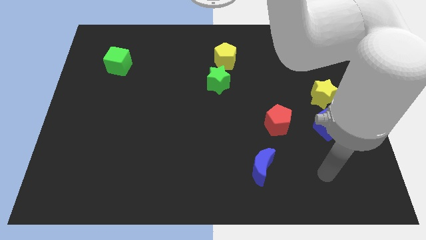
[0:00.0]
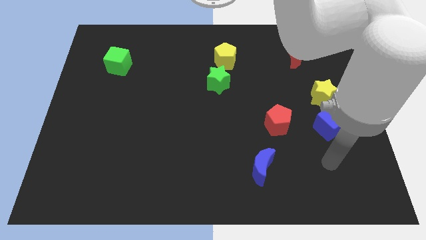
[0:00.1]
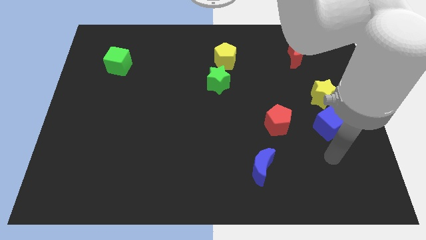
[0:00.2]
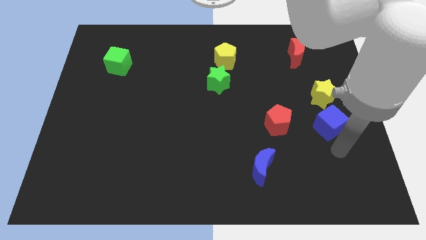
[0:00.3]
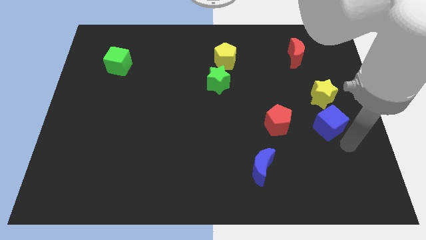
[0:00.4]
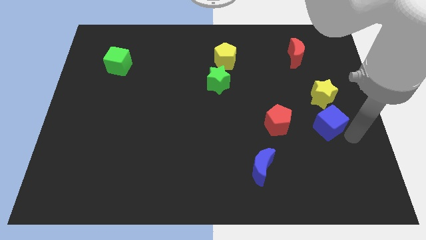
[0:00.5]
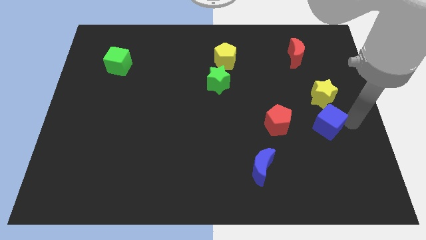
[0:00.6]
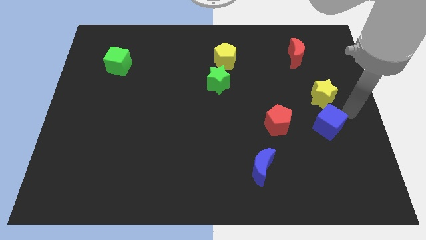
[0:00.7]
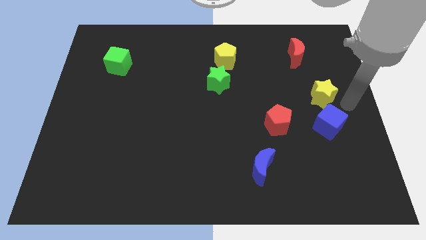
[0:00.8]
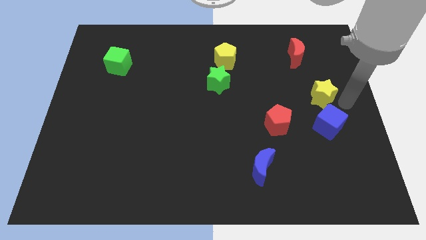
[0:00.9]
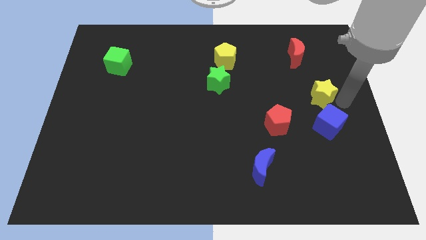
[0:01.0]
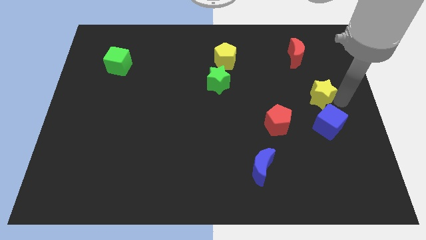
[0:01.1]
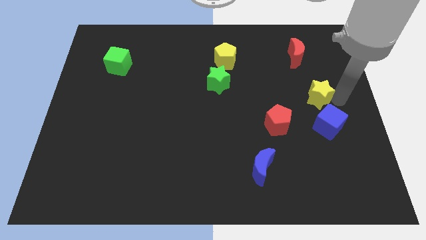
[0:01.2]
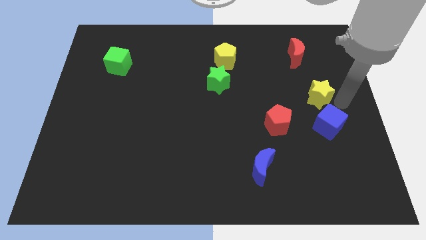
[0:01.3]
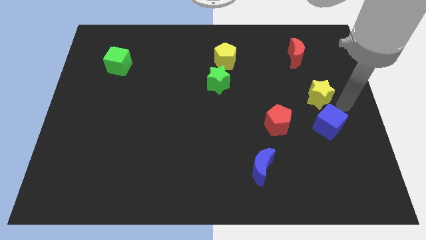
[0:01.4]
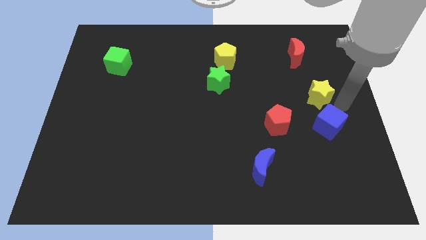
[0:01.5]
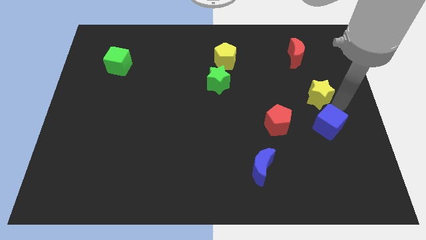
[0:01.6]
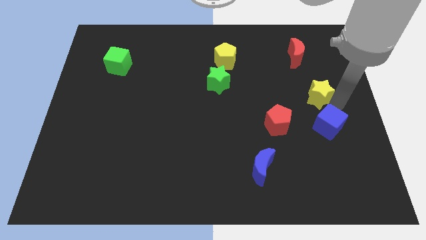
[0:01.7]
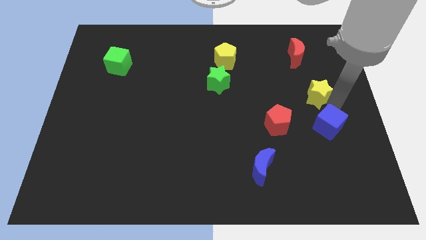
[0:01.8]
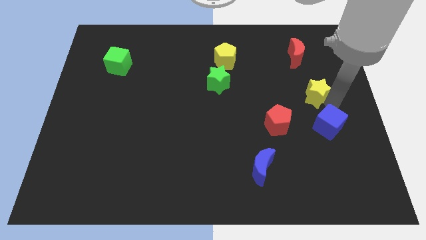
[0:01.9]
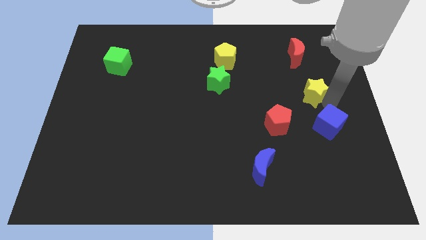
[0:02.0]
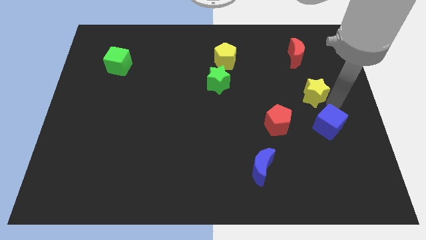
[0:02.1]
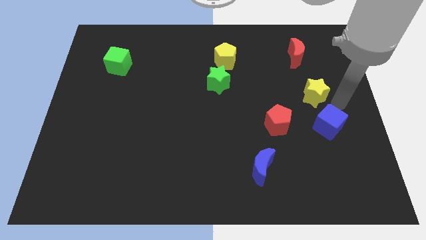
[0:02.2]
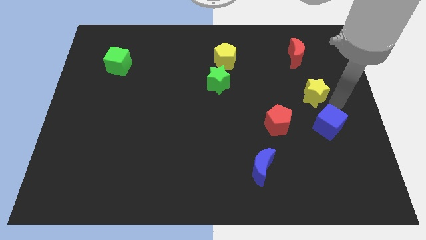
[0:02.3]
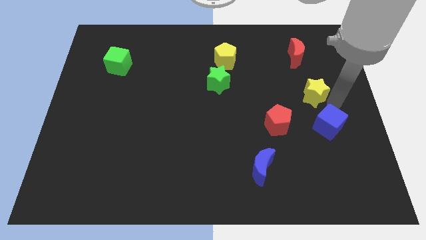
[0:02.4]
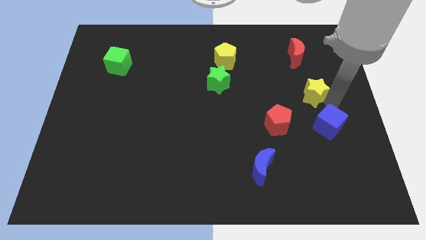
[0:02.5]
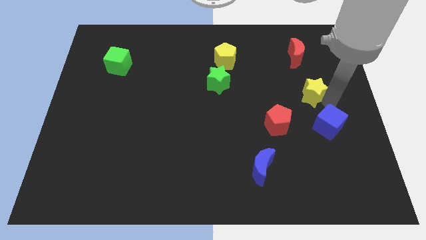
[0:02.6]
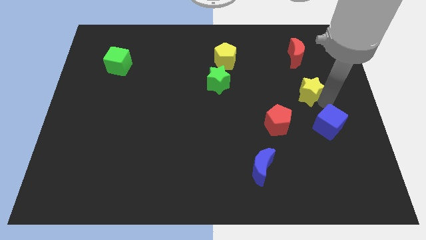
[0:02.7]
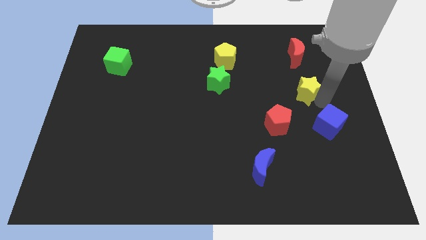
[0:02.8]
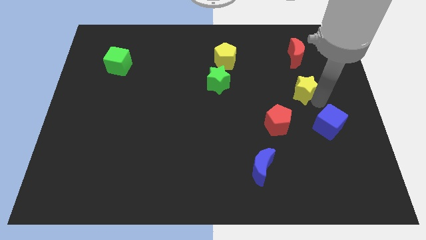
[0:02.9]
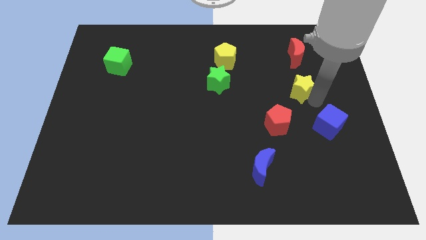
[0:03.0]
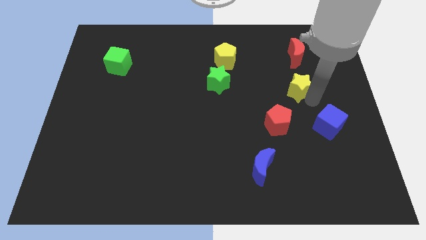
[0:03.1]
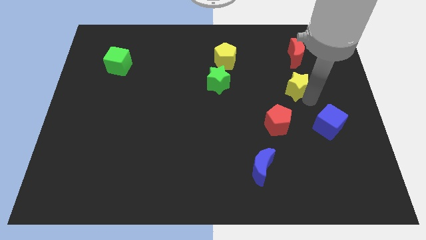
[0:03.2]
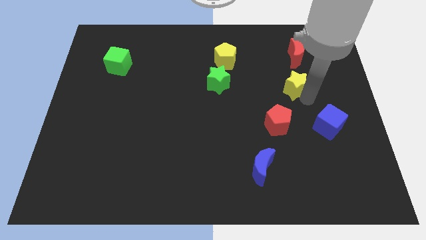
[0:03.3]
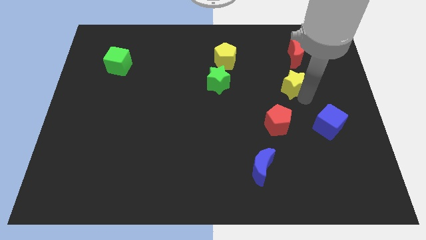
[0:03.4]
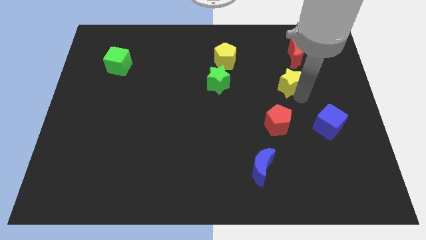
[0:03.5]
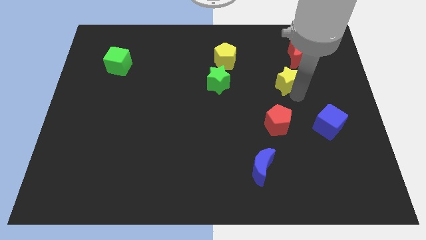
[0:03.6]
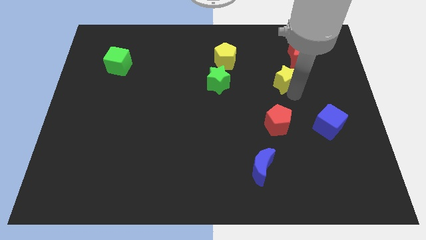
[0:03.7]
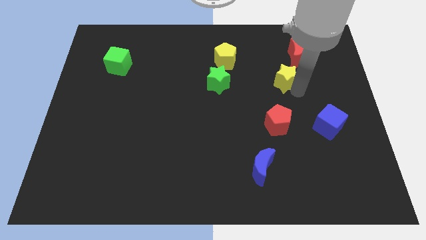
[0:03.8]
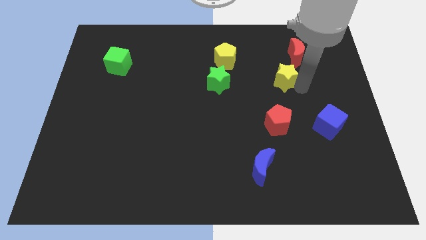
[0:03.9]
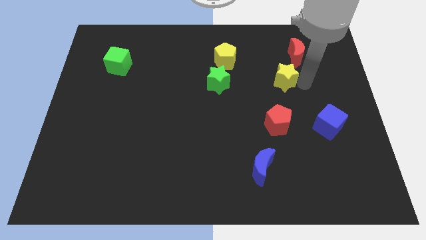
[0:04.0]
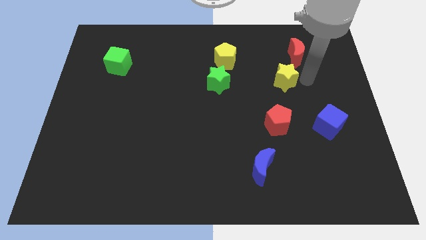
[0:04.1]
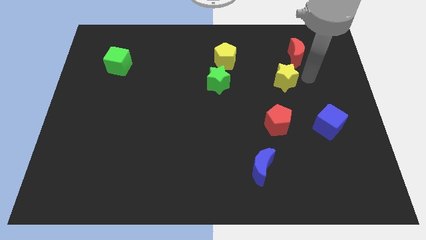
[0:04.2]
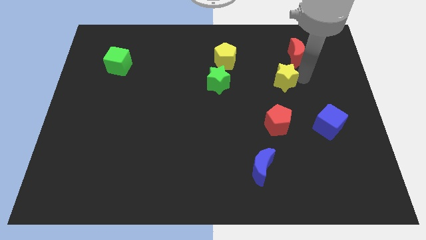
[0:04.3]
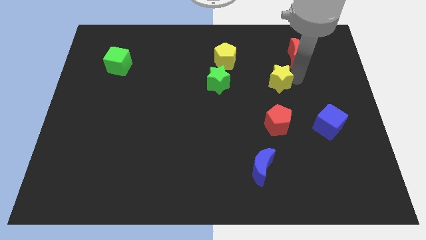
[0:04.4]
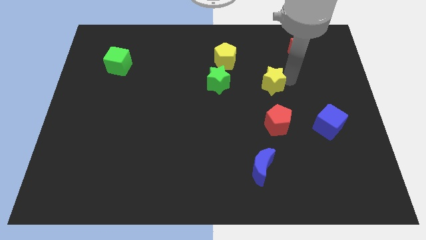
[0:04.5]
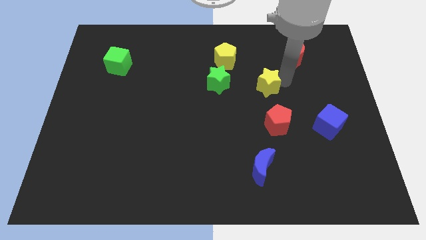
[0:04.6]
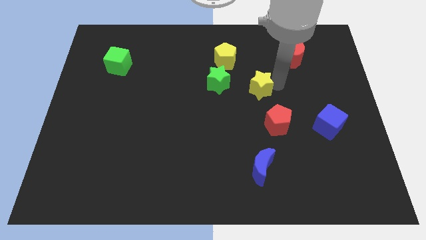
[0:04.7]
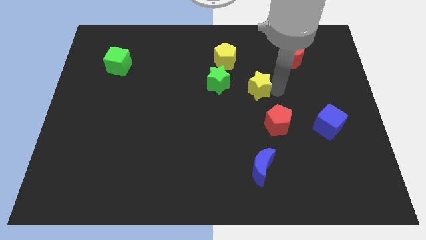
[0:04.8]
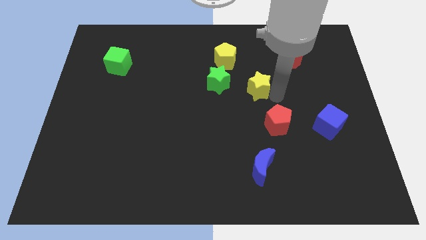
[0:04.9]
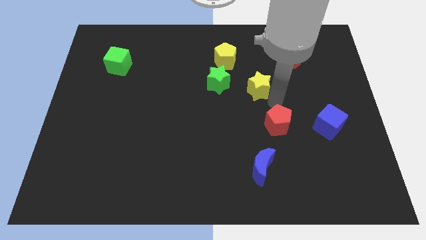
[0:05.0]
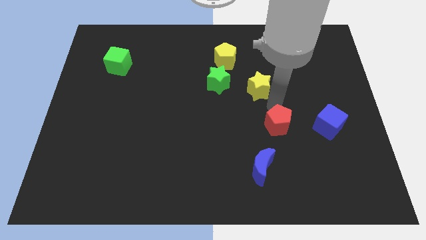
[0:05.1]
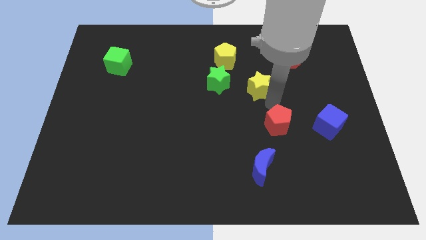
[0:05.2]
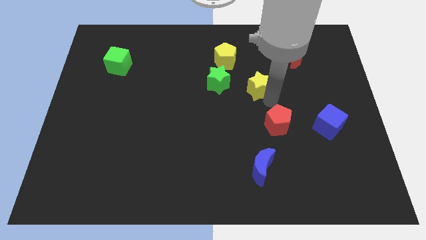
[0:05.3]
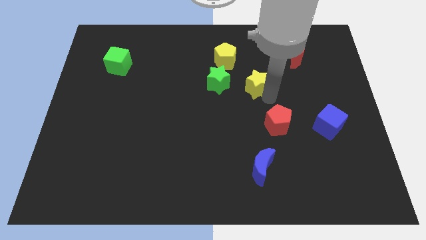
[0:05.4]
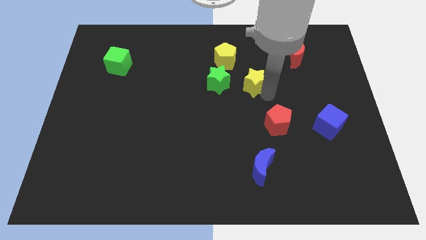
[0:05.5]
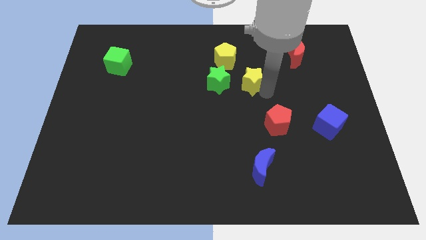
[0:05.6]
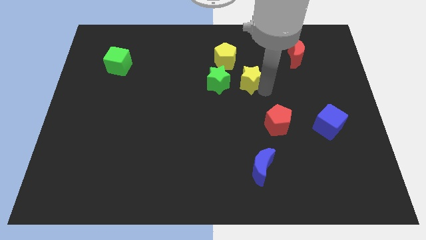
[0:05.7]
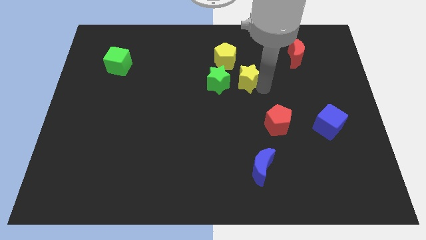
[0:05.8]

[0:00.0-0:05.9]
slide the yellow star to the top right side of the green star

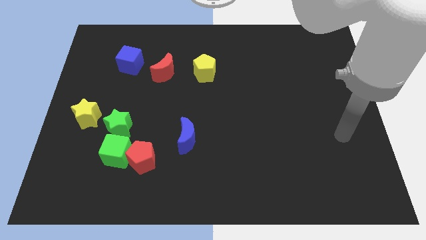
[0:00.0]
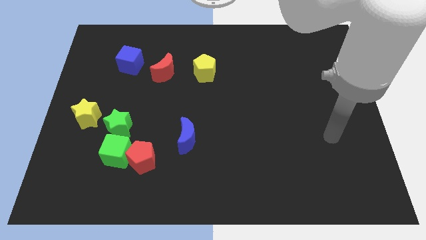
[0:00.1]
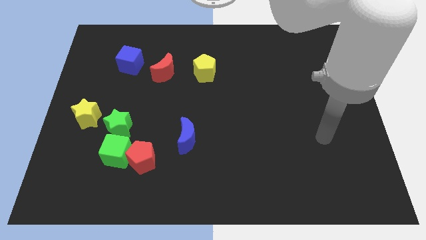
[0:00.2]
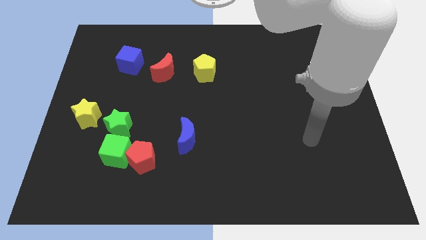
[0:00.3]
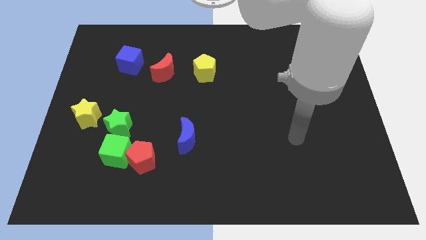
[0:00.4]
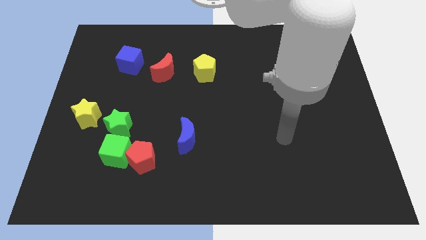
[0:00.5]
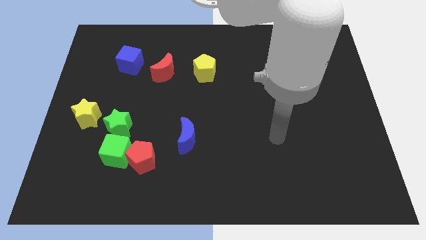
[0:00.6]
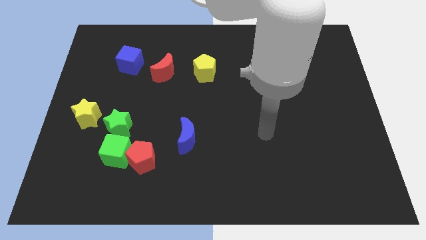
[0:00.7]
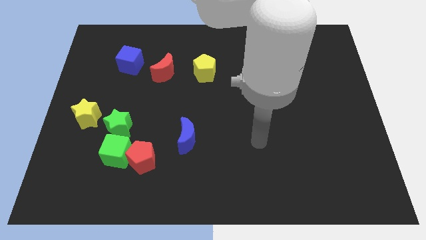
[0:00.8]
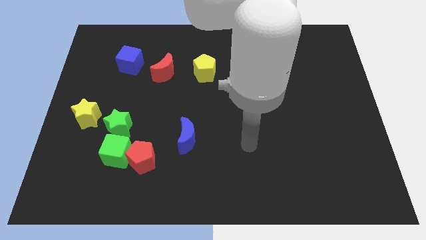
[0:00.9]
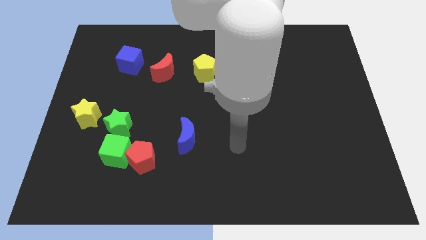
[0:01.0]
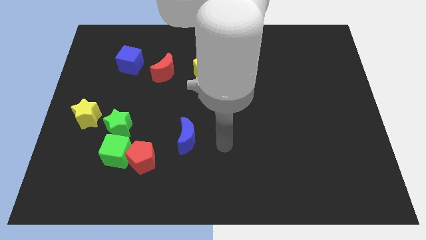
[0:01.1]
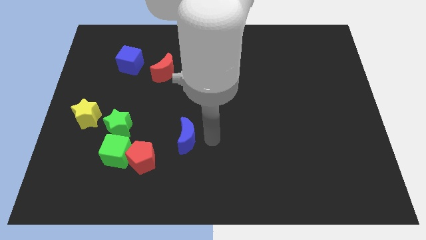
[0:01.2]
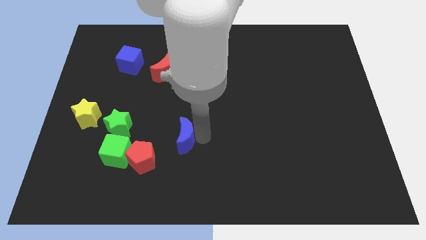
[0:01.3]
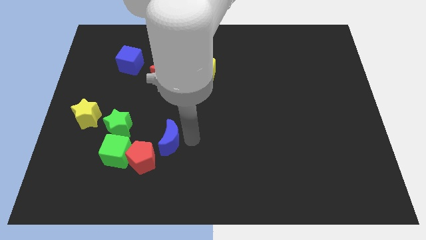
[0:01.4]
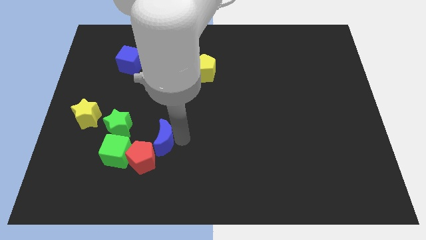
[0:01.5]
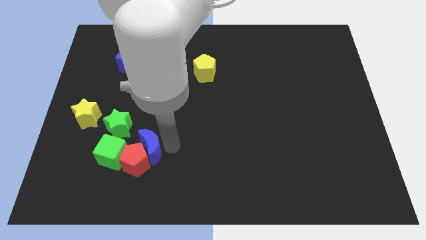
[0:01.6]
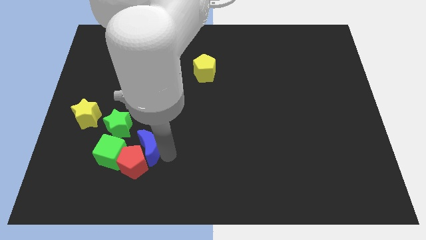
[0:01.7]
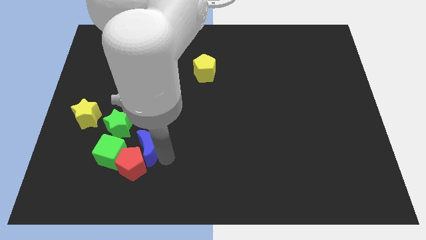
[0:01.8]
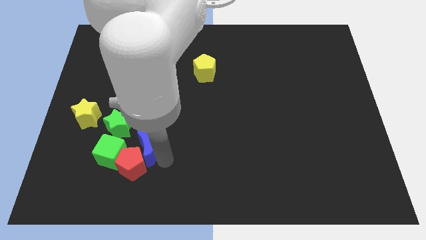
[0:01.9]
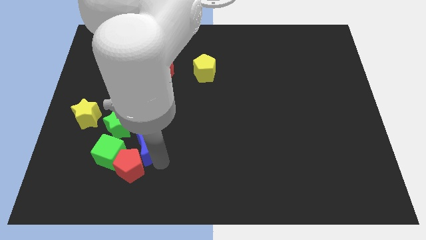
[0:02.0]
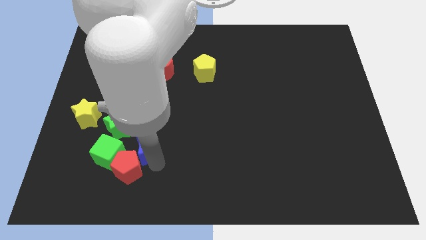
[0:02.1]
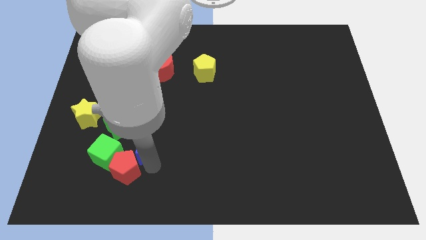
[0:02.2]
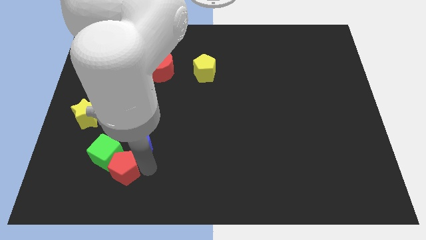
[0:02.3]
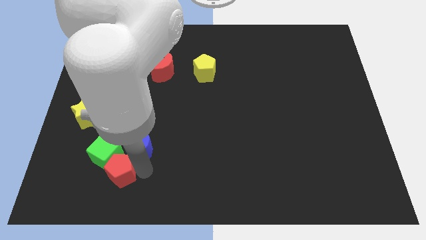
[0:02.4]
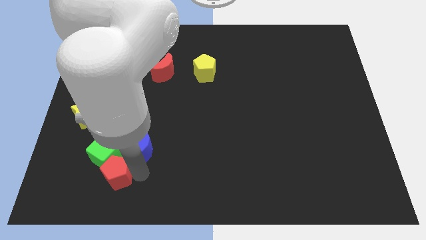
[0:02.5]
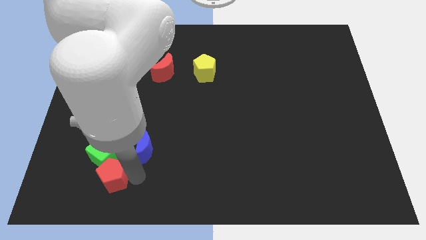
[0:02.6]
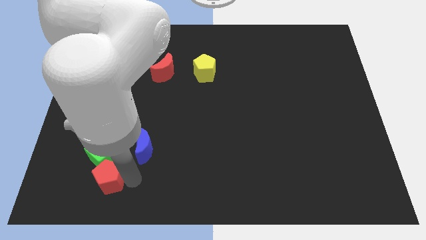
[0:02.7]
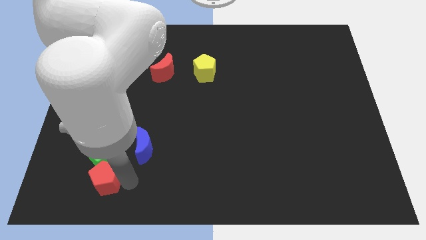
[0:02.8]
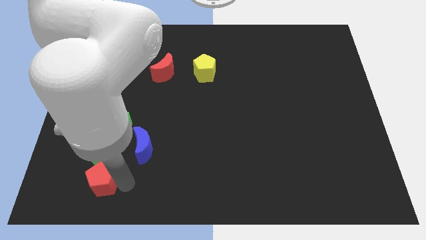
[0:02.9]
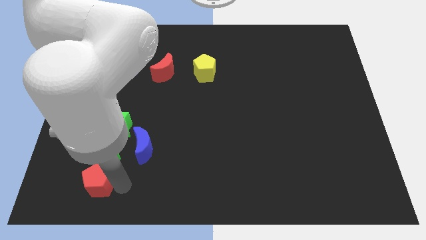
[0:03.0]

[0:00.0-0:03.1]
push the red pentagon to the bottom left of the green cube
